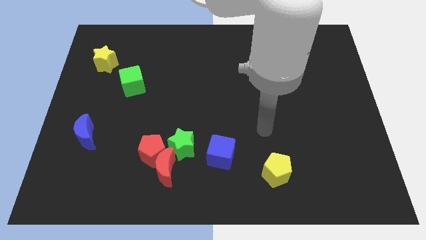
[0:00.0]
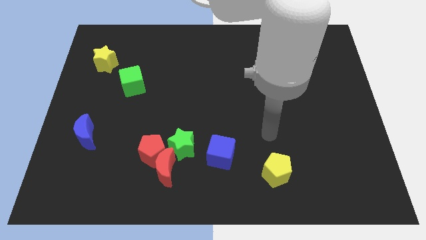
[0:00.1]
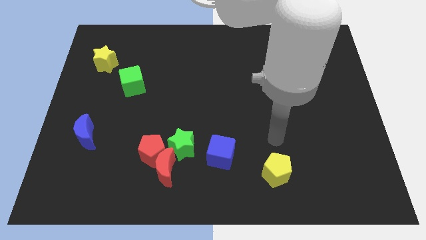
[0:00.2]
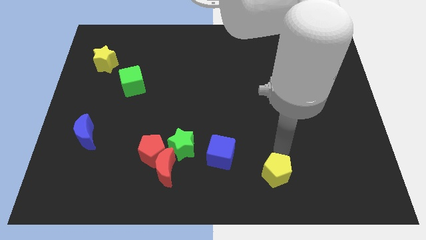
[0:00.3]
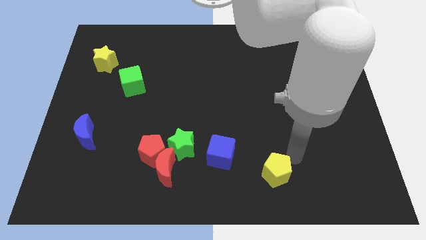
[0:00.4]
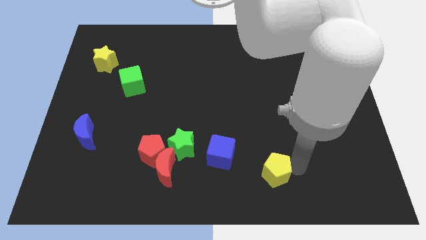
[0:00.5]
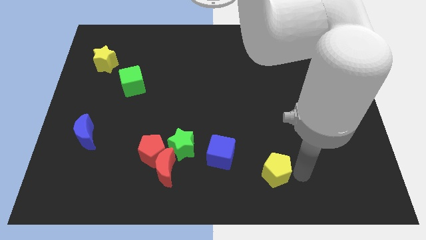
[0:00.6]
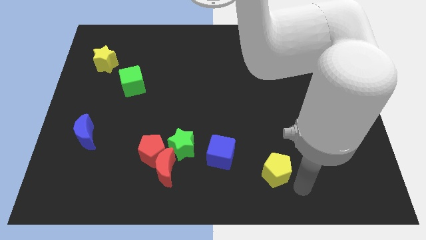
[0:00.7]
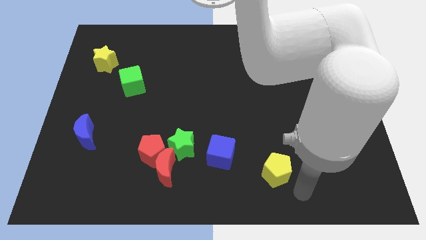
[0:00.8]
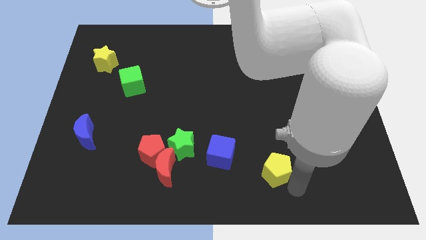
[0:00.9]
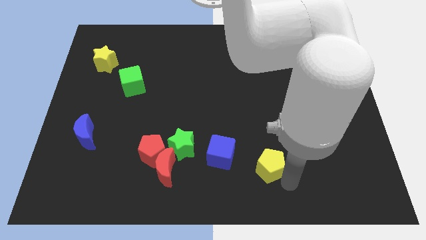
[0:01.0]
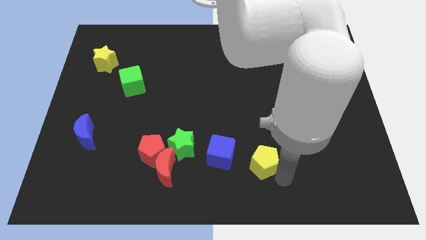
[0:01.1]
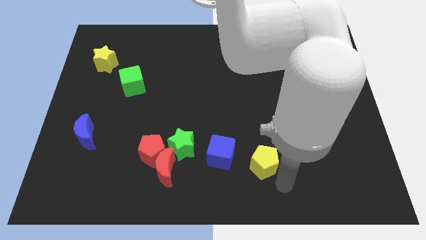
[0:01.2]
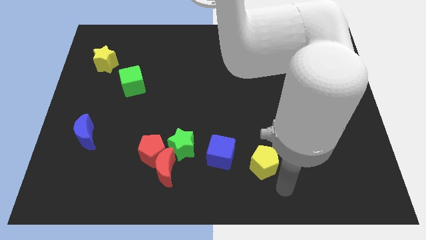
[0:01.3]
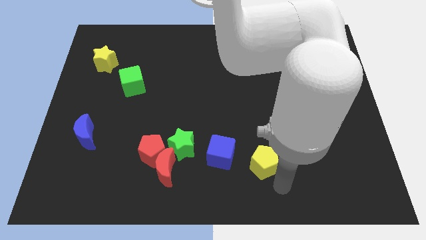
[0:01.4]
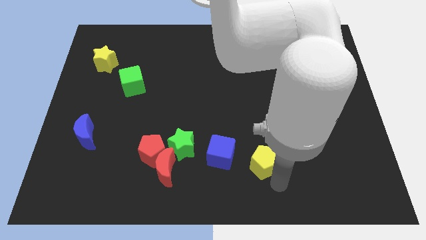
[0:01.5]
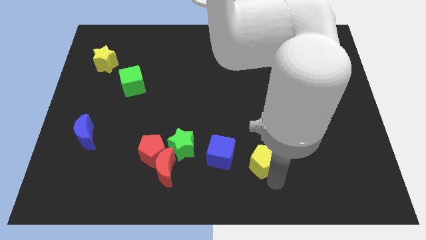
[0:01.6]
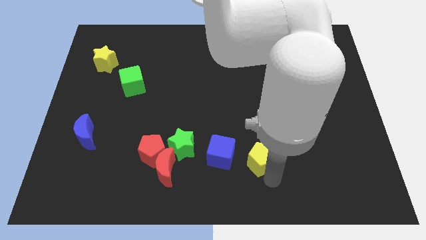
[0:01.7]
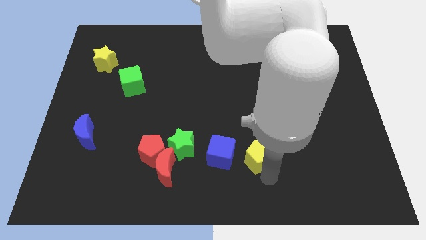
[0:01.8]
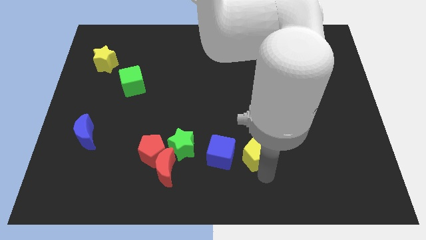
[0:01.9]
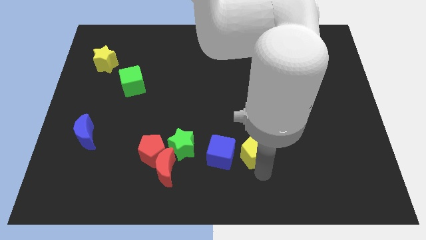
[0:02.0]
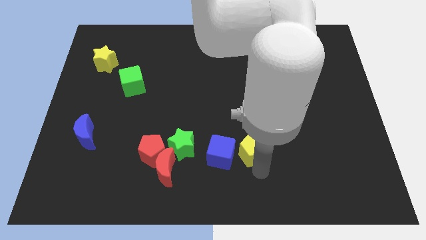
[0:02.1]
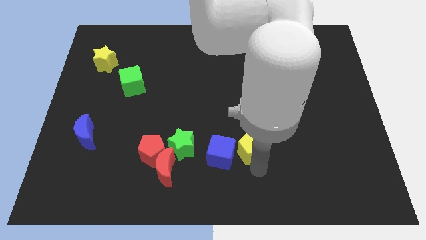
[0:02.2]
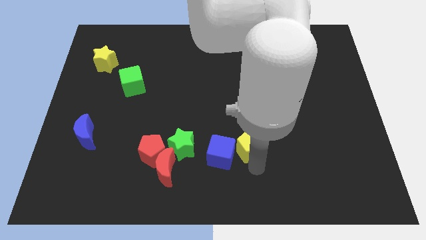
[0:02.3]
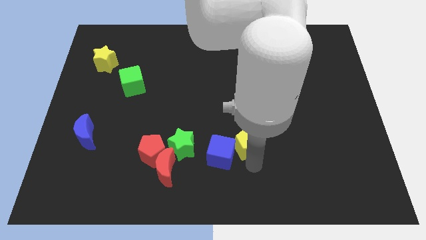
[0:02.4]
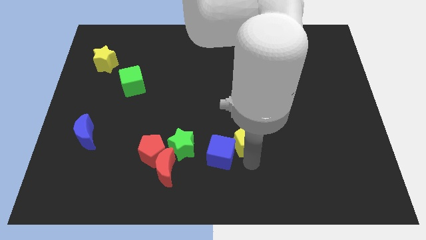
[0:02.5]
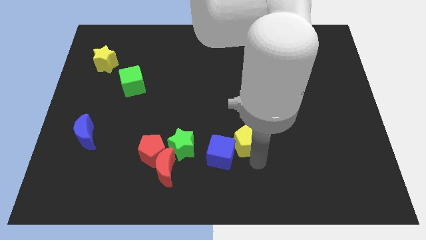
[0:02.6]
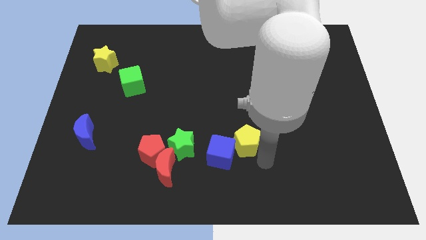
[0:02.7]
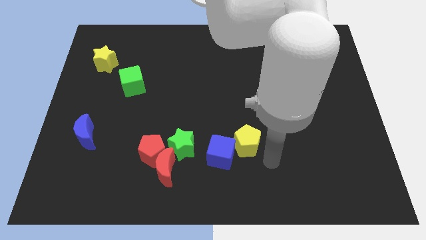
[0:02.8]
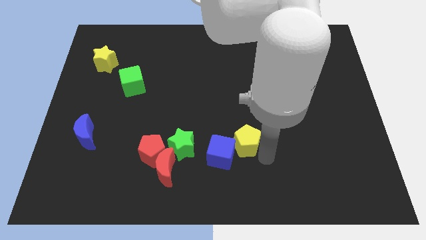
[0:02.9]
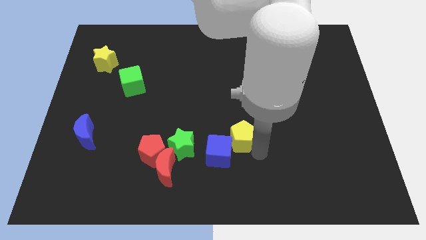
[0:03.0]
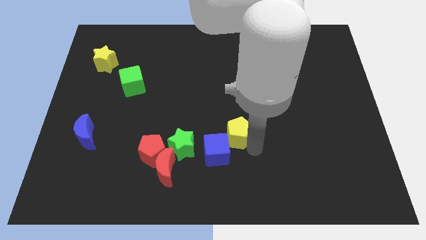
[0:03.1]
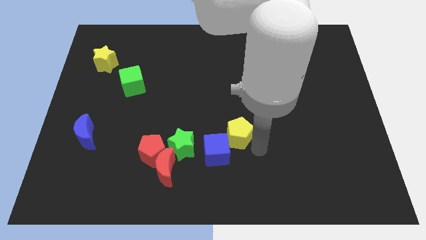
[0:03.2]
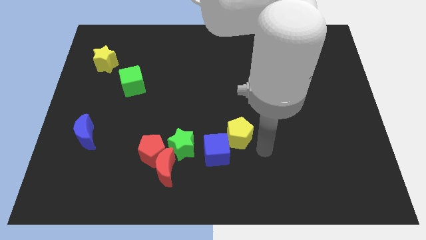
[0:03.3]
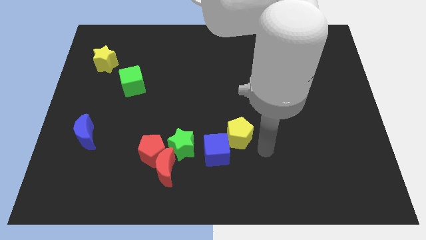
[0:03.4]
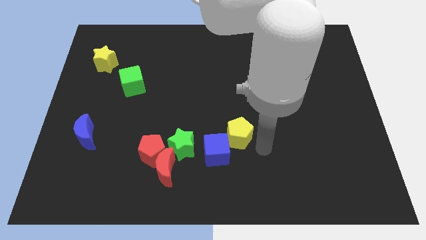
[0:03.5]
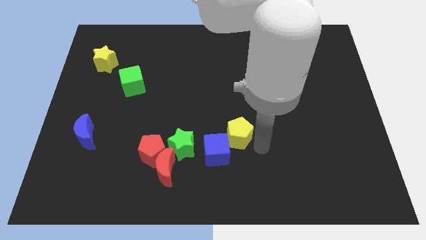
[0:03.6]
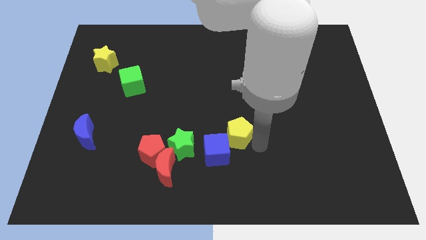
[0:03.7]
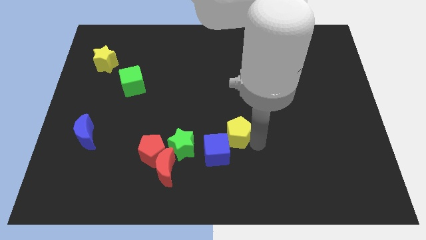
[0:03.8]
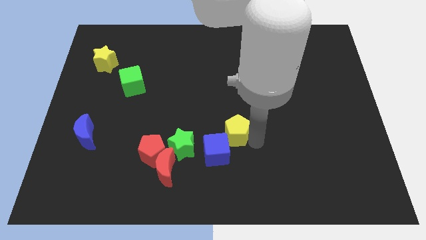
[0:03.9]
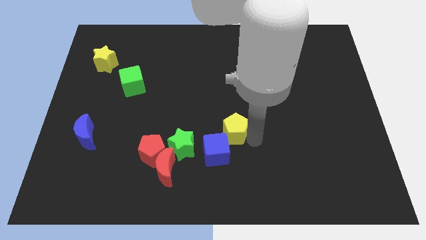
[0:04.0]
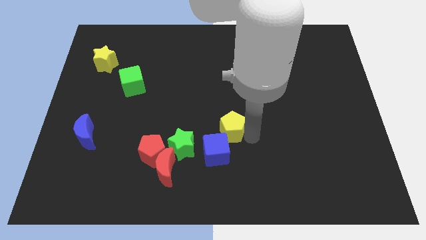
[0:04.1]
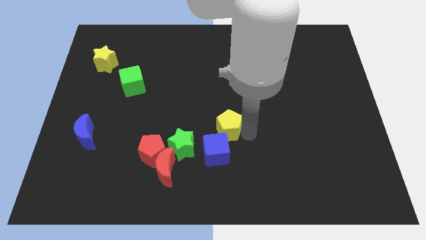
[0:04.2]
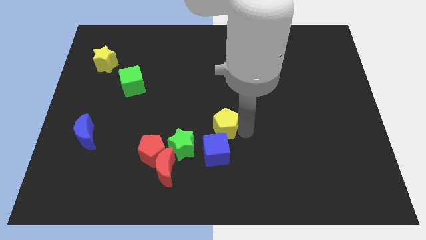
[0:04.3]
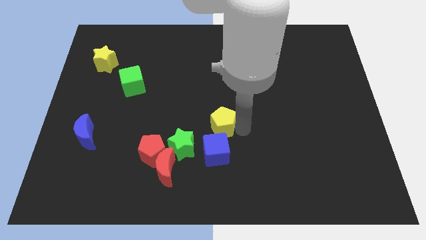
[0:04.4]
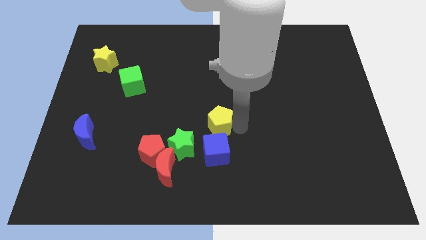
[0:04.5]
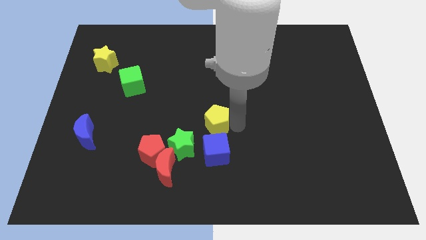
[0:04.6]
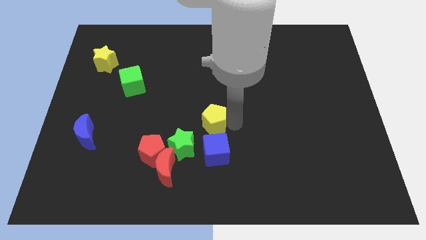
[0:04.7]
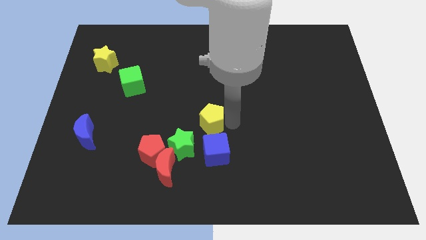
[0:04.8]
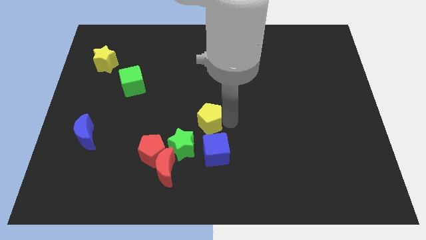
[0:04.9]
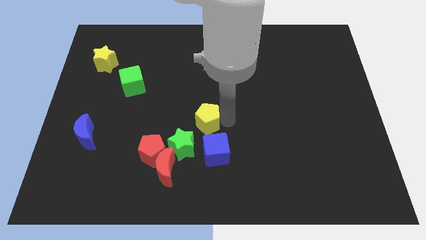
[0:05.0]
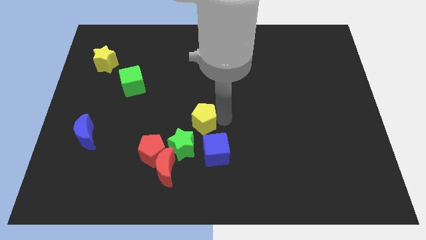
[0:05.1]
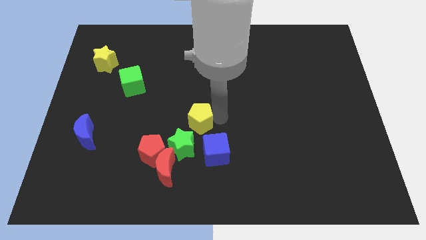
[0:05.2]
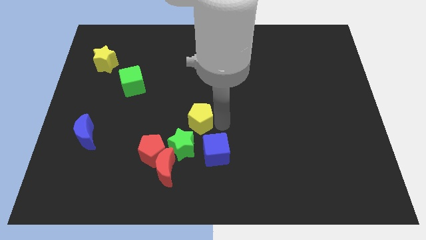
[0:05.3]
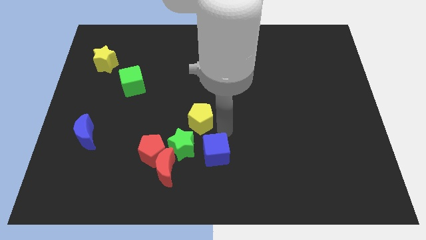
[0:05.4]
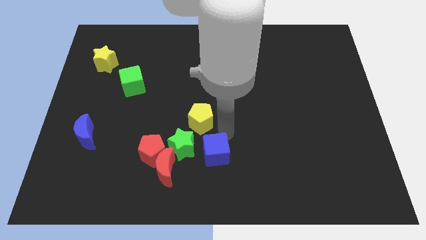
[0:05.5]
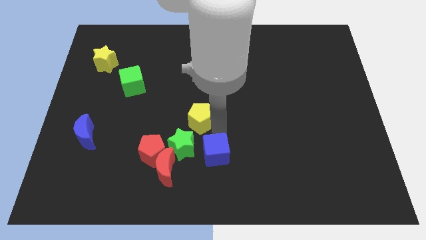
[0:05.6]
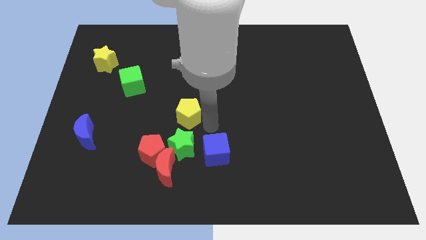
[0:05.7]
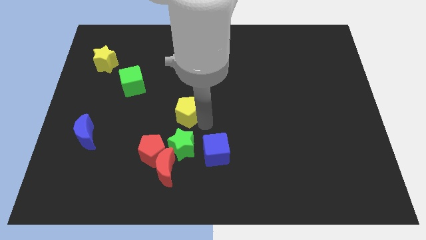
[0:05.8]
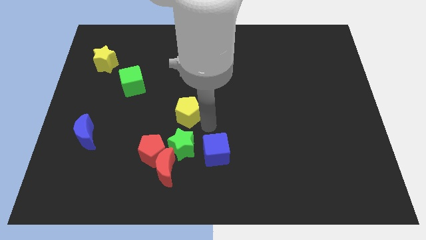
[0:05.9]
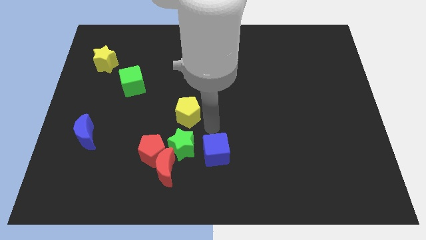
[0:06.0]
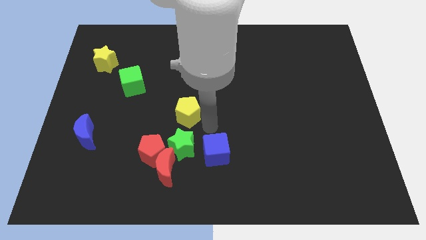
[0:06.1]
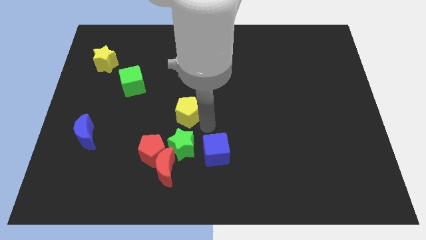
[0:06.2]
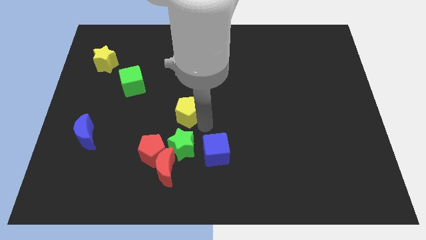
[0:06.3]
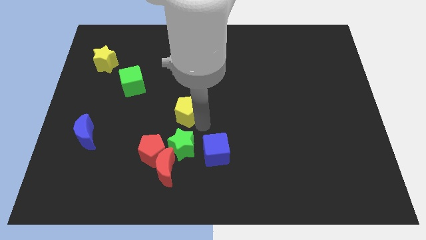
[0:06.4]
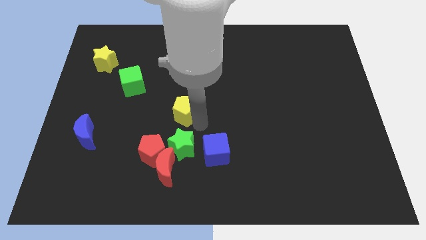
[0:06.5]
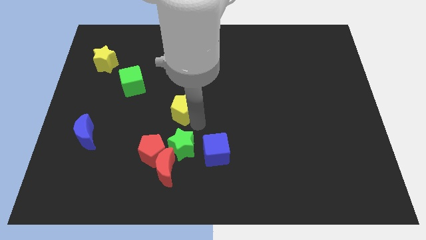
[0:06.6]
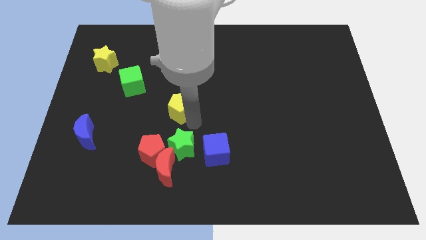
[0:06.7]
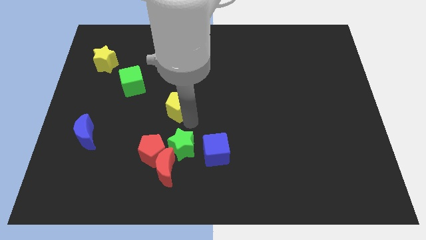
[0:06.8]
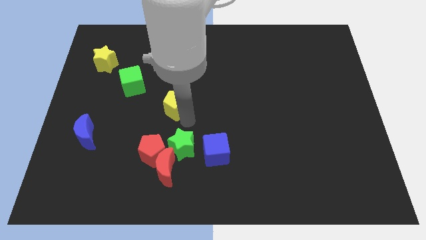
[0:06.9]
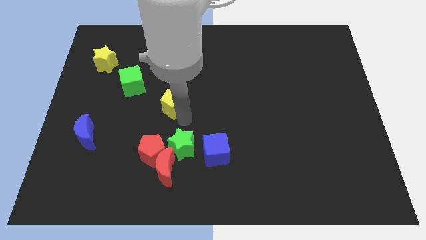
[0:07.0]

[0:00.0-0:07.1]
put the yellow pentagon to the bottom right side of the green cube
